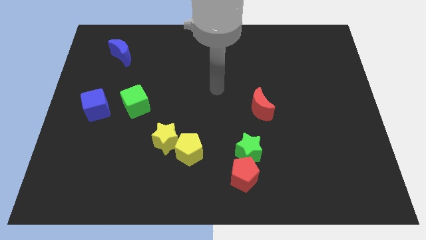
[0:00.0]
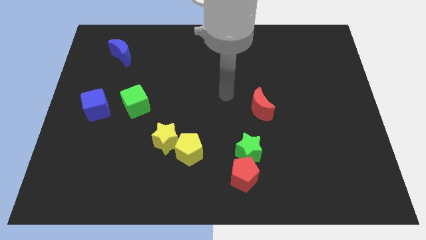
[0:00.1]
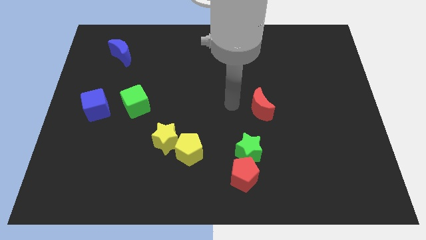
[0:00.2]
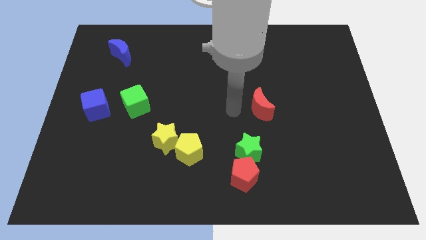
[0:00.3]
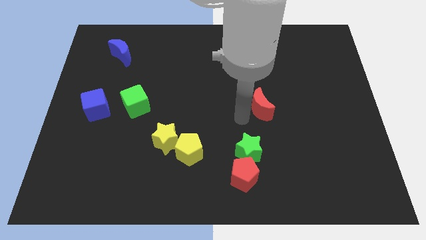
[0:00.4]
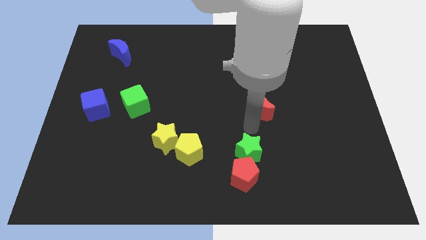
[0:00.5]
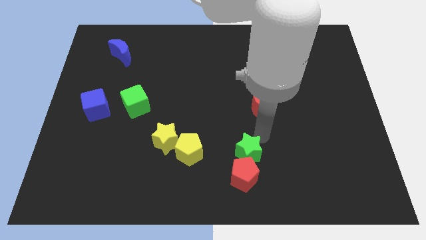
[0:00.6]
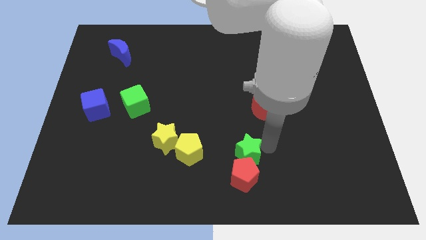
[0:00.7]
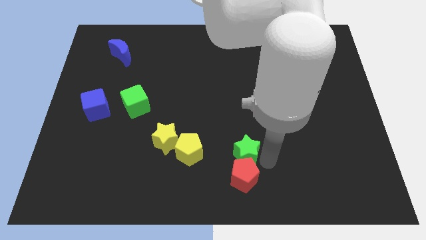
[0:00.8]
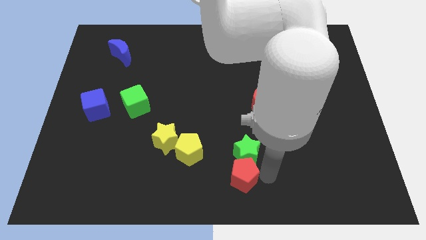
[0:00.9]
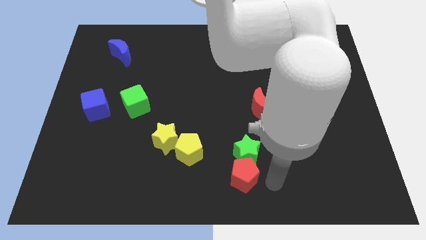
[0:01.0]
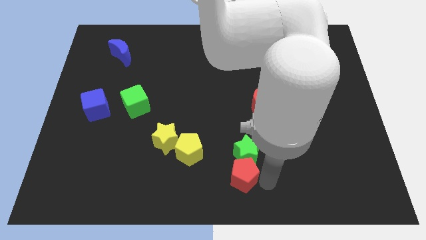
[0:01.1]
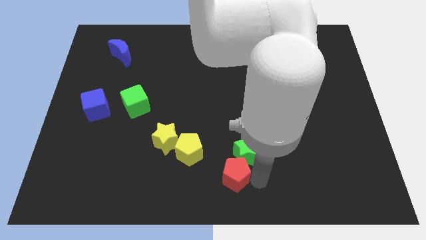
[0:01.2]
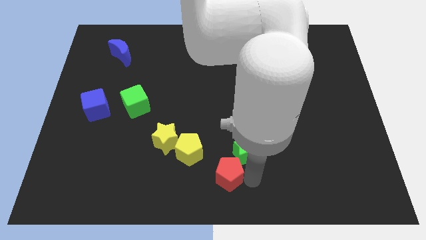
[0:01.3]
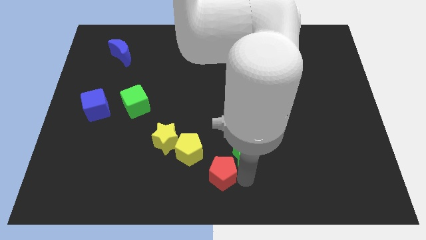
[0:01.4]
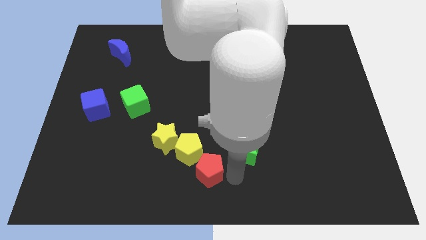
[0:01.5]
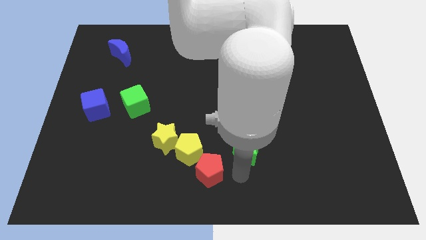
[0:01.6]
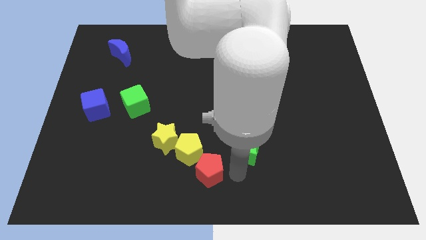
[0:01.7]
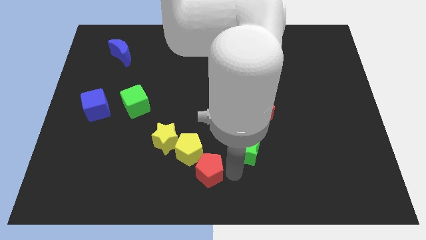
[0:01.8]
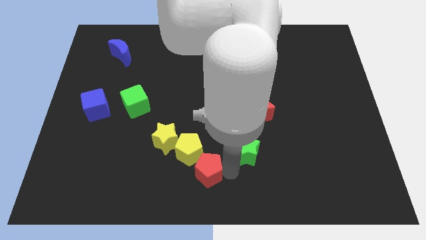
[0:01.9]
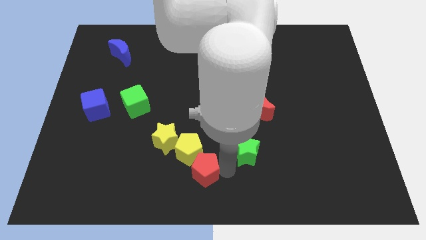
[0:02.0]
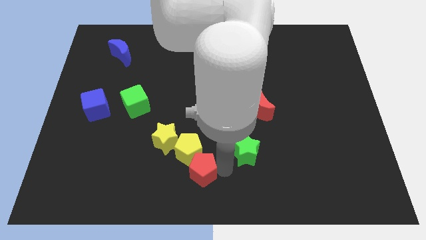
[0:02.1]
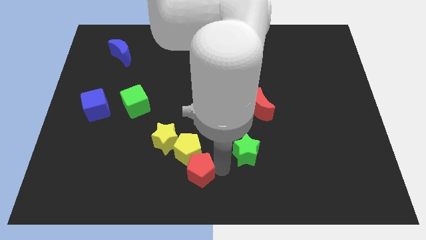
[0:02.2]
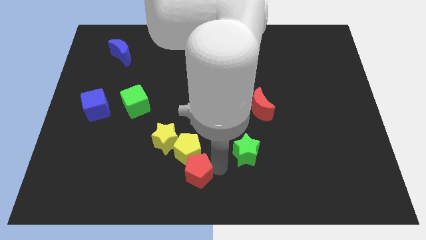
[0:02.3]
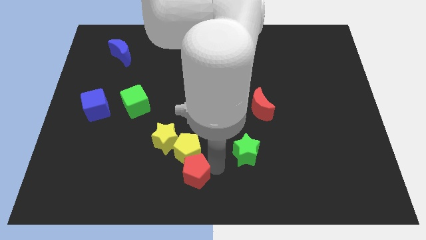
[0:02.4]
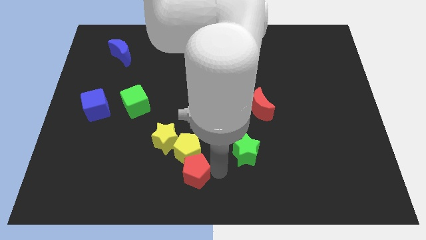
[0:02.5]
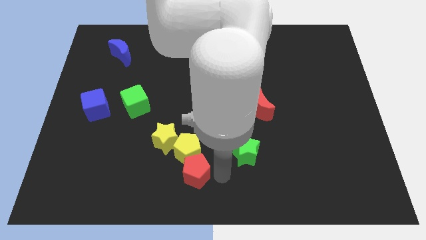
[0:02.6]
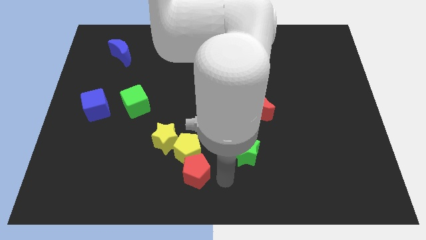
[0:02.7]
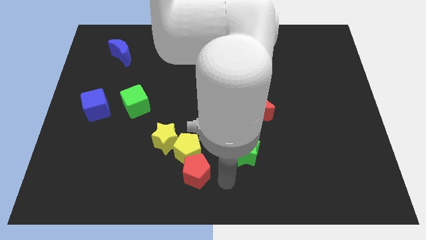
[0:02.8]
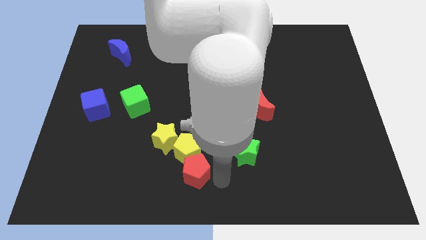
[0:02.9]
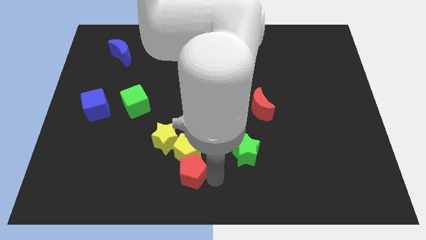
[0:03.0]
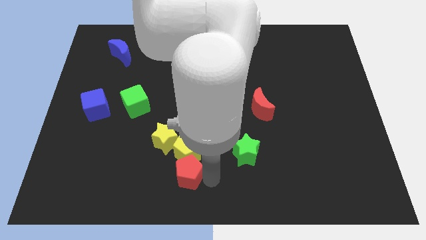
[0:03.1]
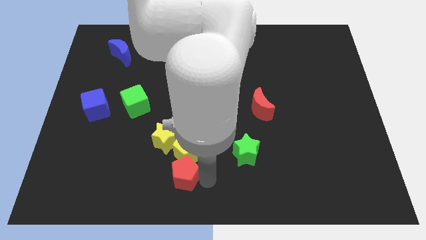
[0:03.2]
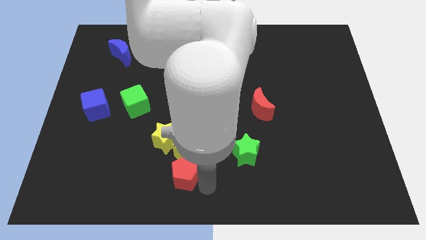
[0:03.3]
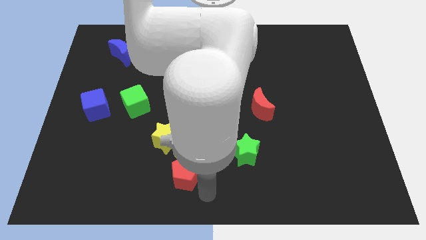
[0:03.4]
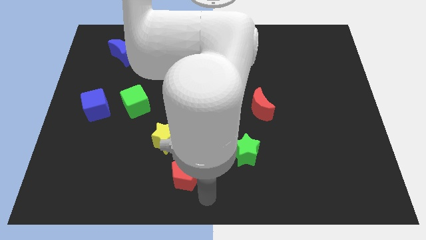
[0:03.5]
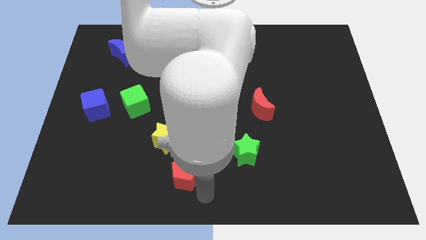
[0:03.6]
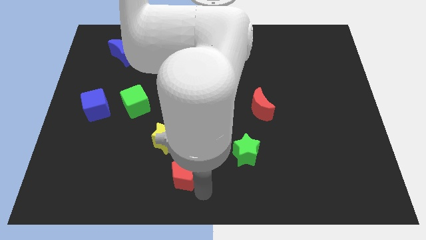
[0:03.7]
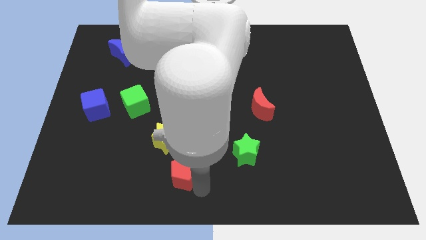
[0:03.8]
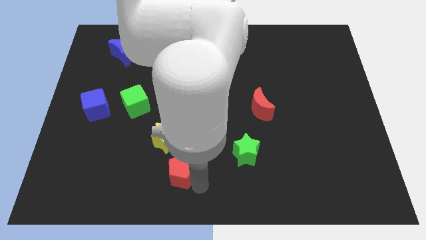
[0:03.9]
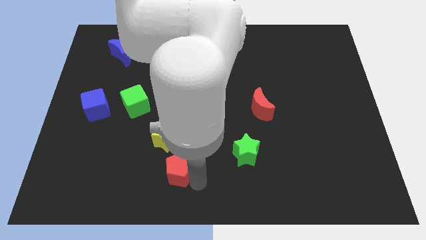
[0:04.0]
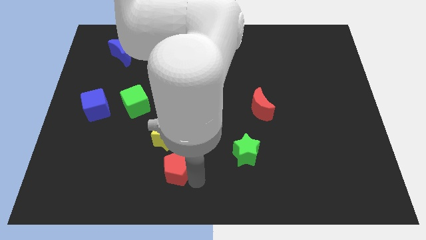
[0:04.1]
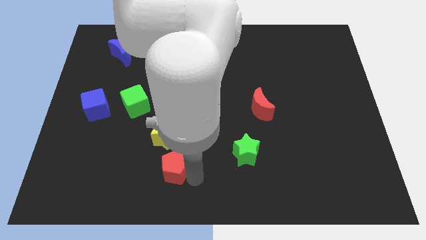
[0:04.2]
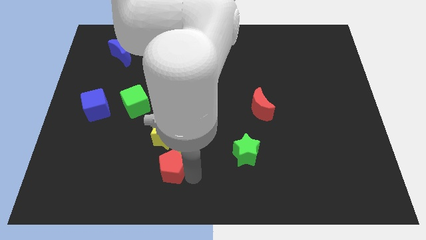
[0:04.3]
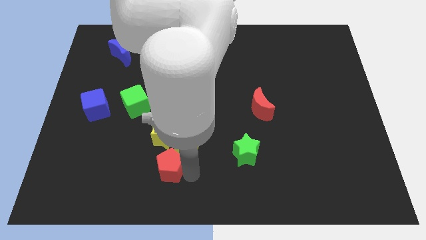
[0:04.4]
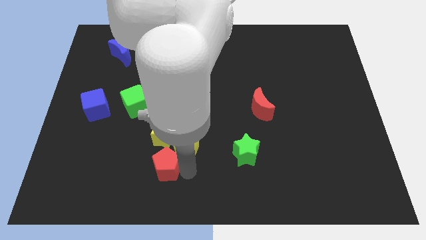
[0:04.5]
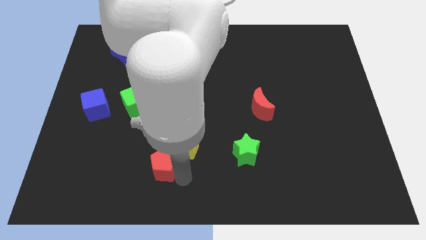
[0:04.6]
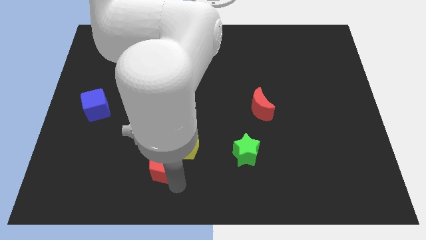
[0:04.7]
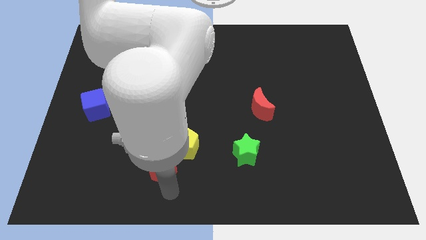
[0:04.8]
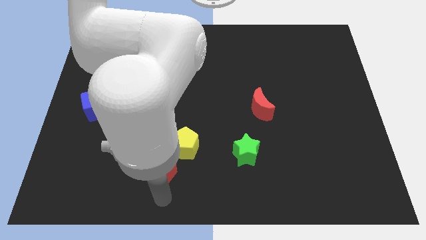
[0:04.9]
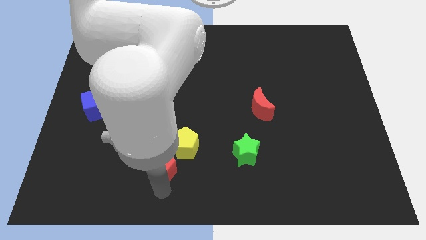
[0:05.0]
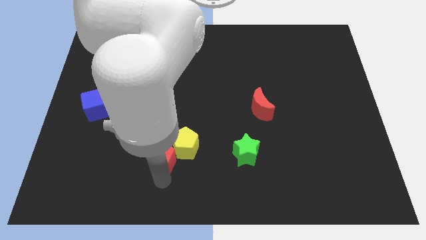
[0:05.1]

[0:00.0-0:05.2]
move the red pentagon next to the yellow star

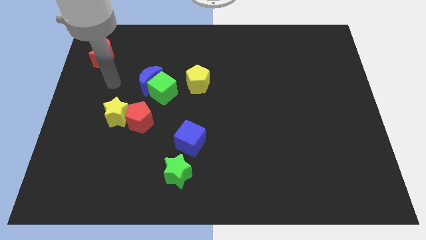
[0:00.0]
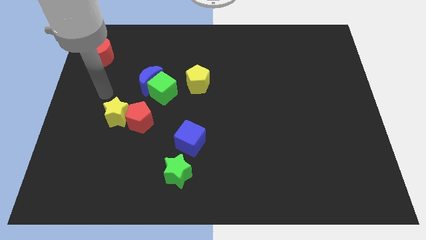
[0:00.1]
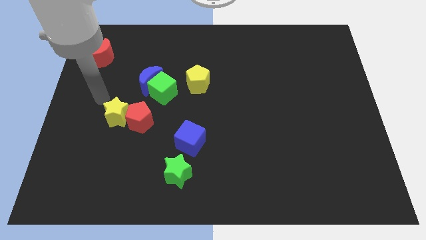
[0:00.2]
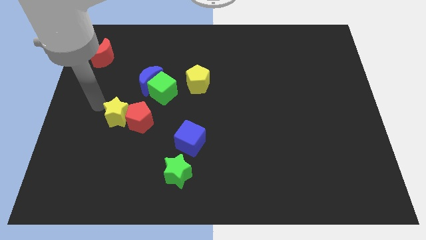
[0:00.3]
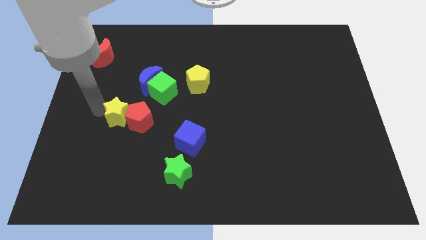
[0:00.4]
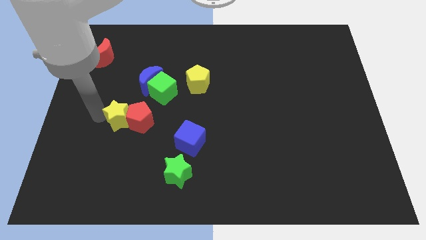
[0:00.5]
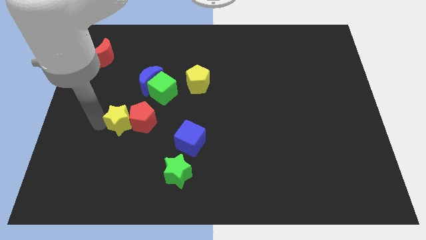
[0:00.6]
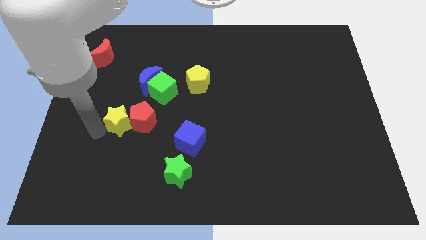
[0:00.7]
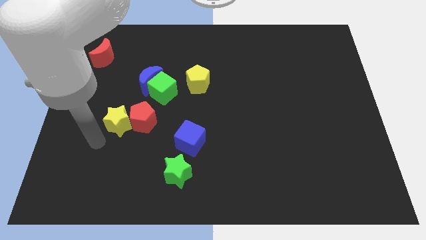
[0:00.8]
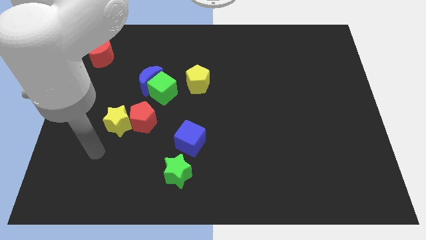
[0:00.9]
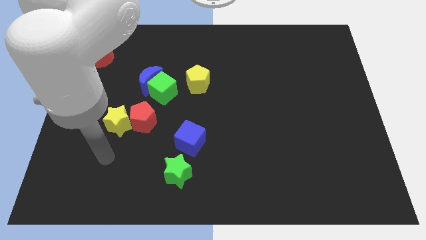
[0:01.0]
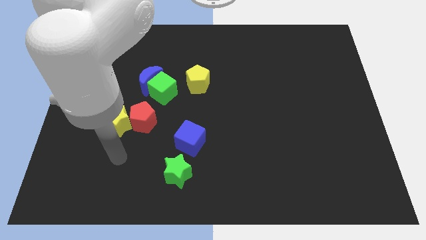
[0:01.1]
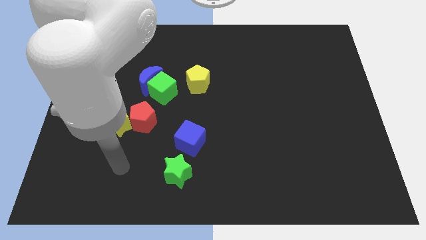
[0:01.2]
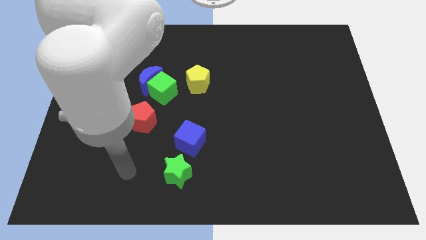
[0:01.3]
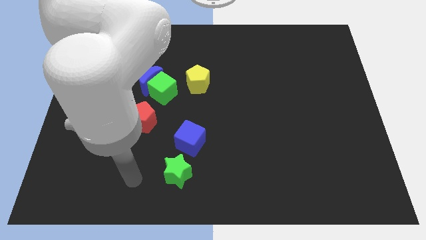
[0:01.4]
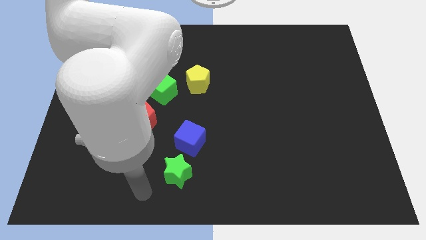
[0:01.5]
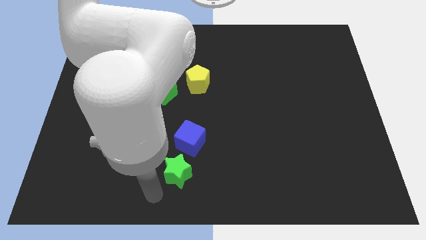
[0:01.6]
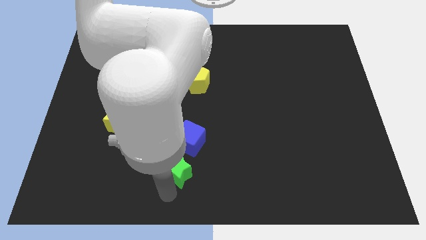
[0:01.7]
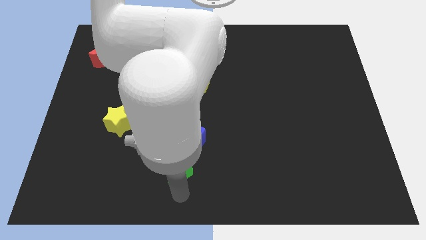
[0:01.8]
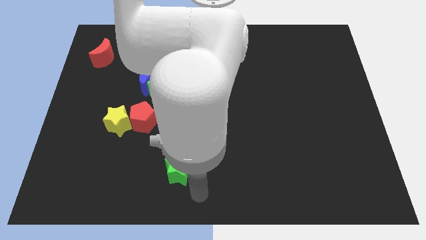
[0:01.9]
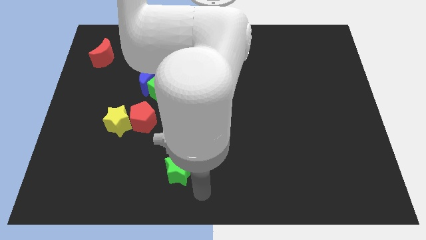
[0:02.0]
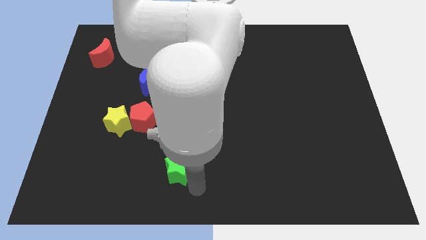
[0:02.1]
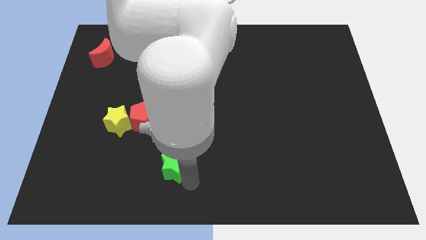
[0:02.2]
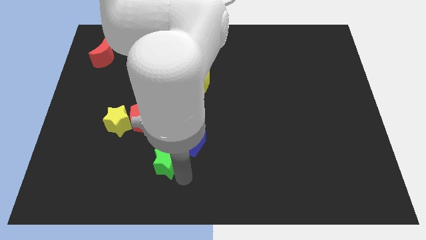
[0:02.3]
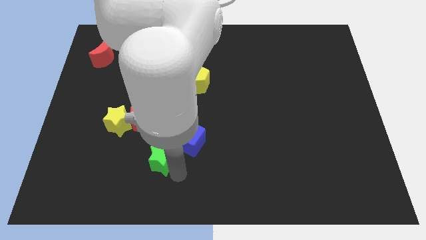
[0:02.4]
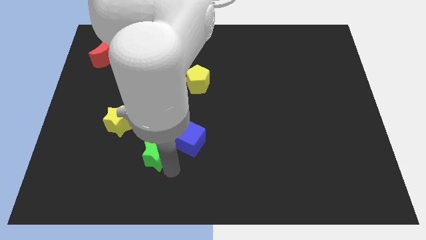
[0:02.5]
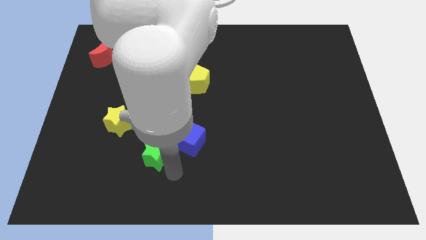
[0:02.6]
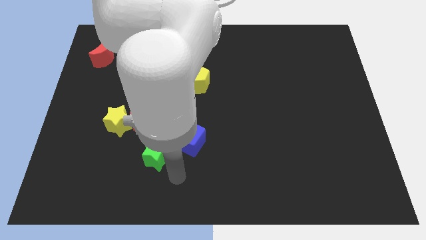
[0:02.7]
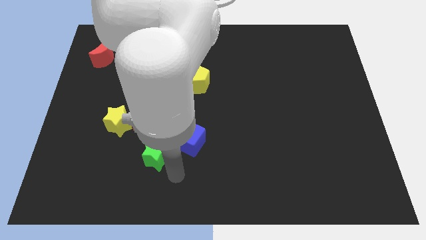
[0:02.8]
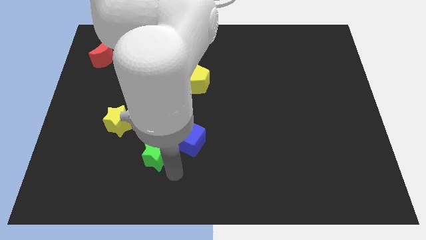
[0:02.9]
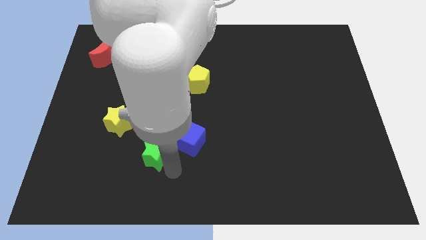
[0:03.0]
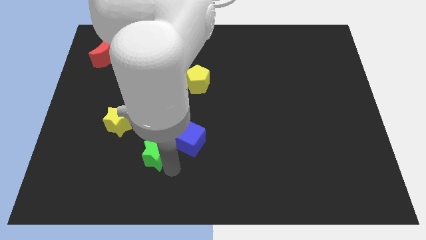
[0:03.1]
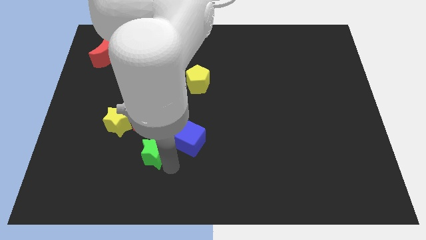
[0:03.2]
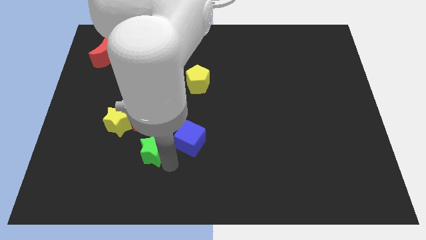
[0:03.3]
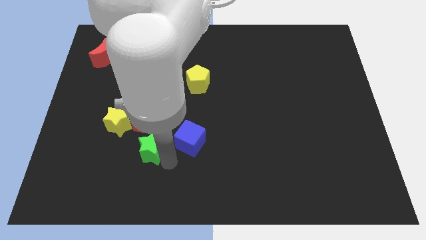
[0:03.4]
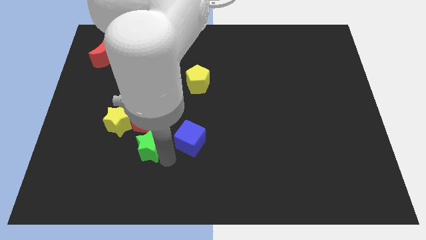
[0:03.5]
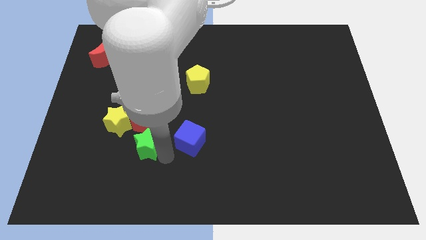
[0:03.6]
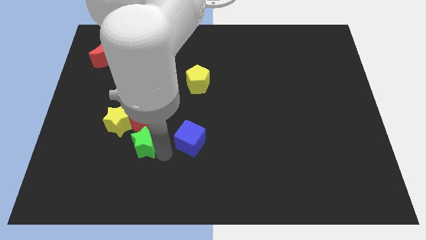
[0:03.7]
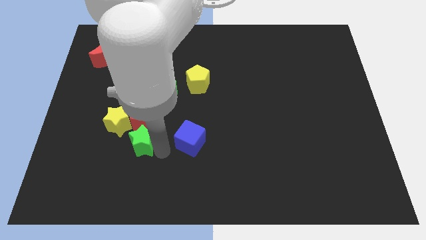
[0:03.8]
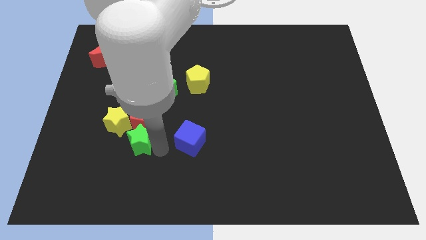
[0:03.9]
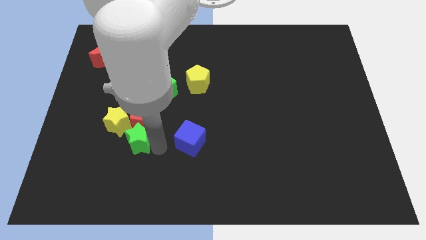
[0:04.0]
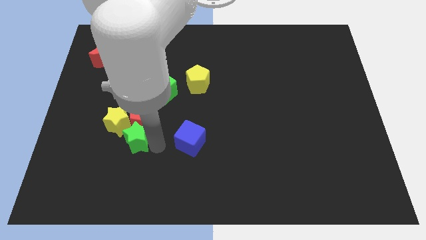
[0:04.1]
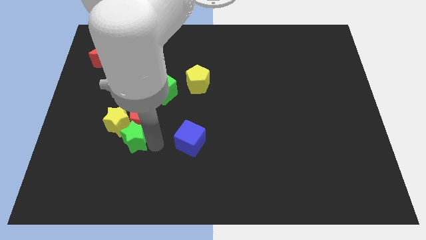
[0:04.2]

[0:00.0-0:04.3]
slide the green star to the yellow star
